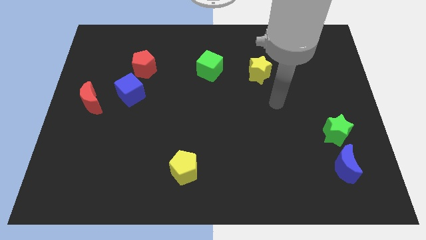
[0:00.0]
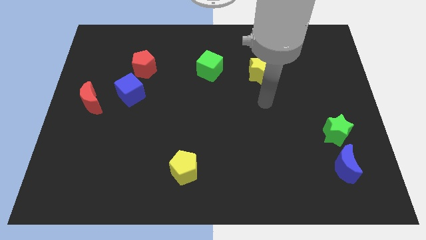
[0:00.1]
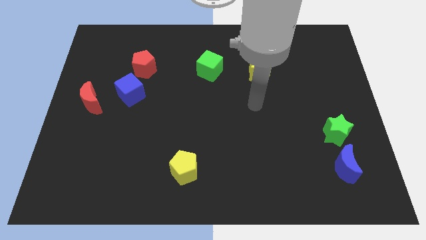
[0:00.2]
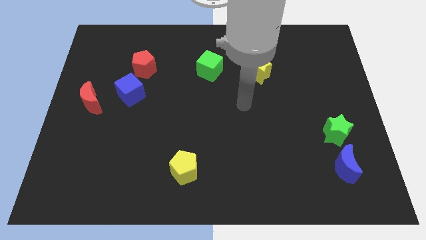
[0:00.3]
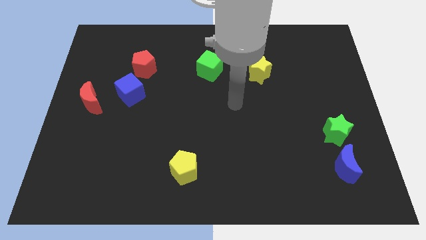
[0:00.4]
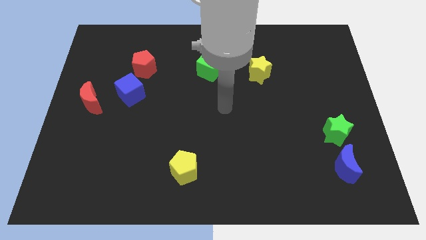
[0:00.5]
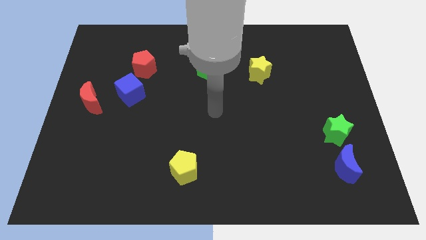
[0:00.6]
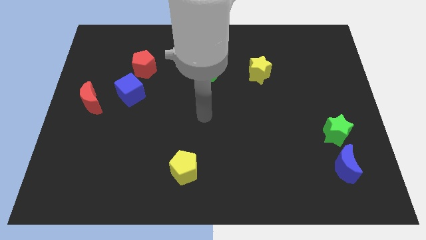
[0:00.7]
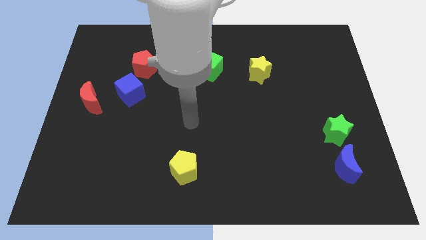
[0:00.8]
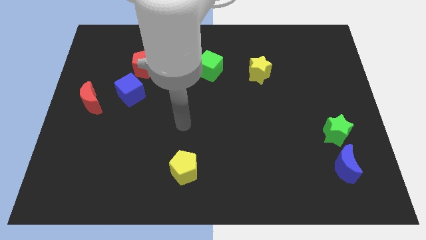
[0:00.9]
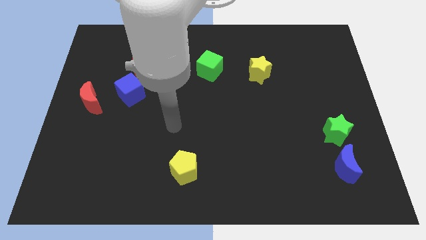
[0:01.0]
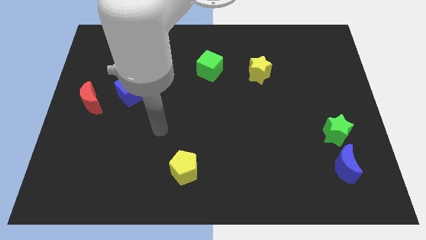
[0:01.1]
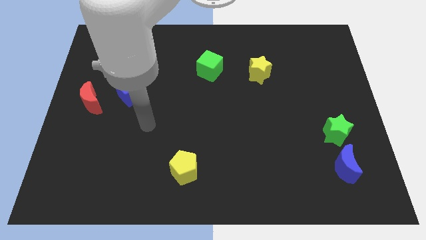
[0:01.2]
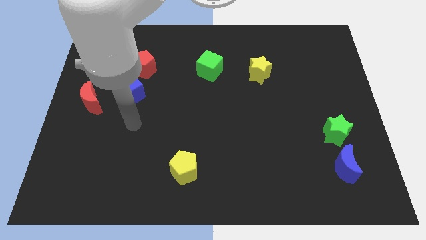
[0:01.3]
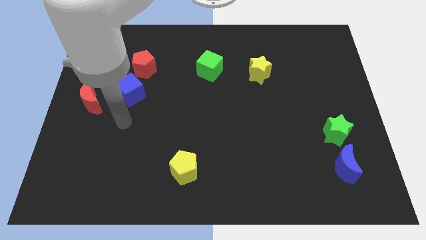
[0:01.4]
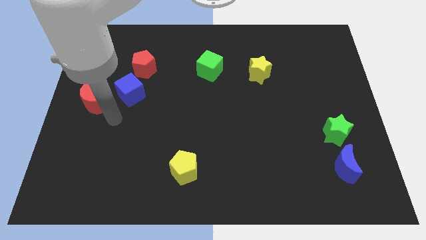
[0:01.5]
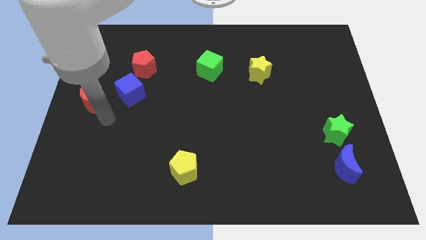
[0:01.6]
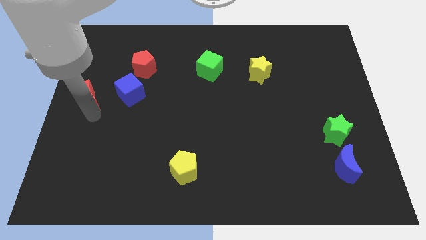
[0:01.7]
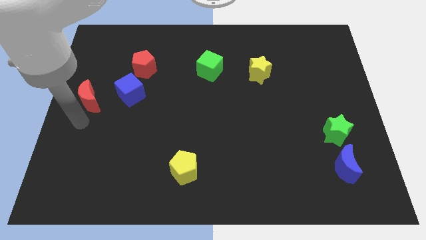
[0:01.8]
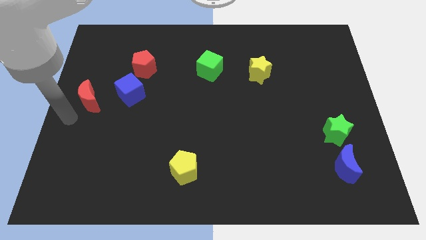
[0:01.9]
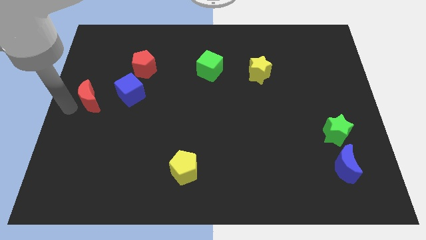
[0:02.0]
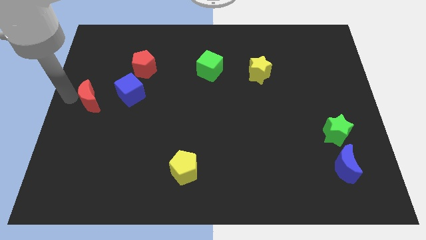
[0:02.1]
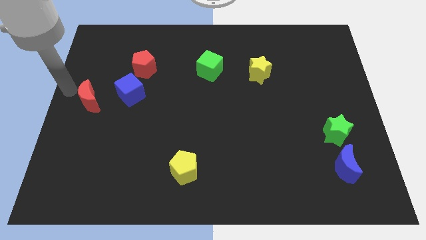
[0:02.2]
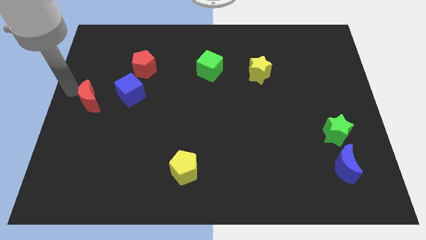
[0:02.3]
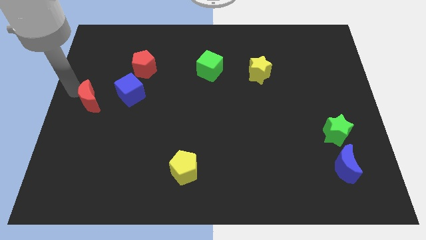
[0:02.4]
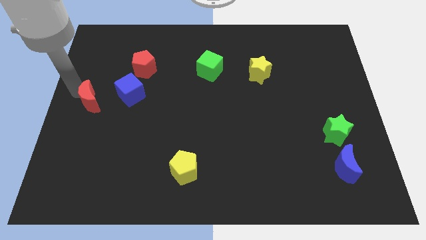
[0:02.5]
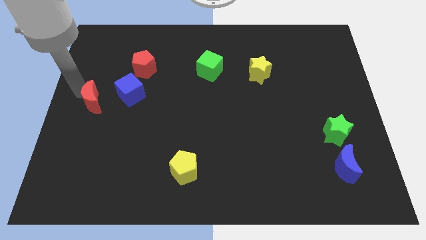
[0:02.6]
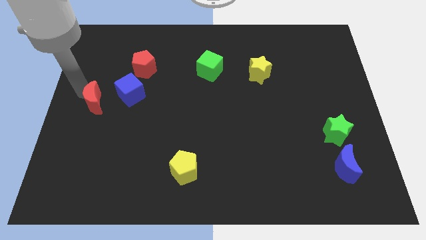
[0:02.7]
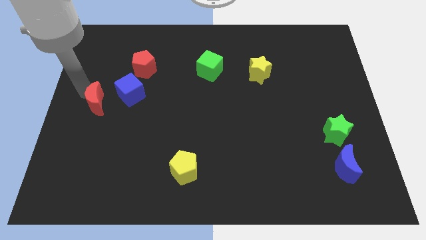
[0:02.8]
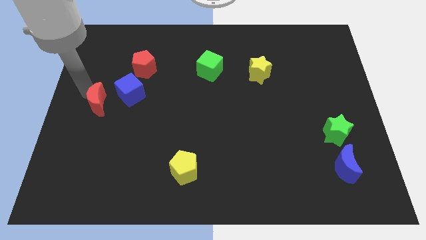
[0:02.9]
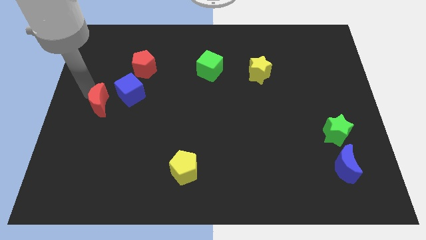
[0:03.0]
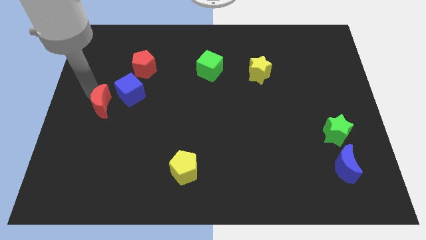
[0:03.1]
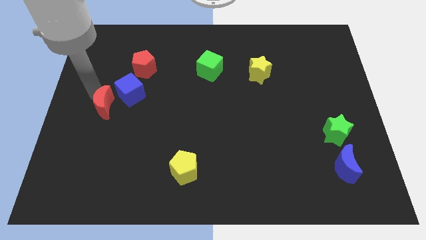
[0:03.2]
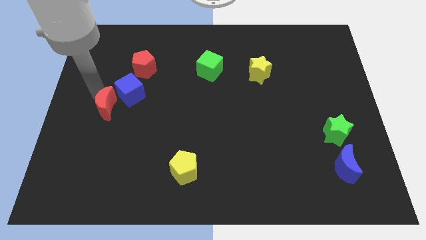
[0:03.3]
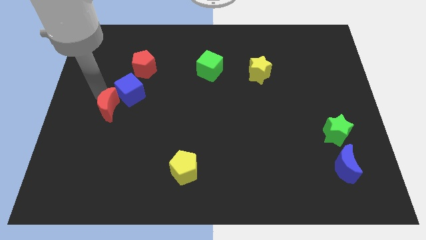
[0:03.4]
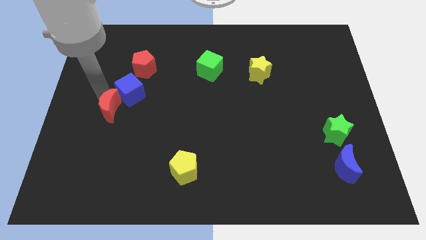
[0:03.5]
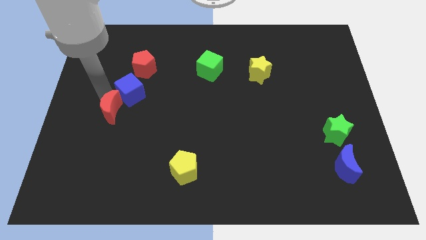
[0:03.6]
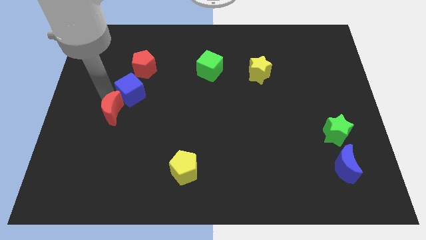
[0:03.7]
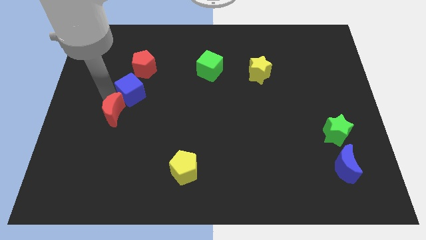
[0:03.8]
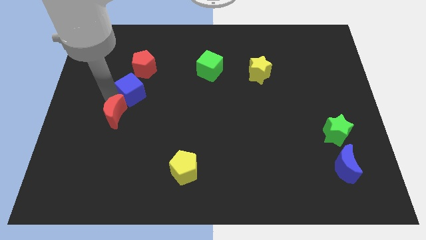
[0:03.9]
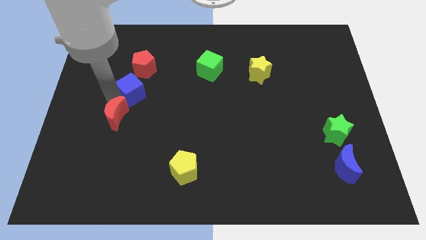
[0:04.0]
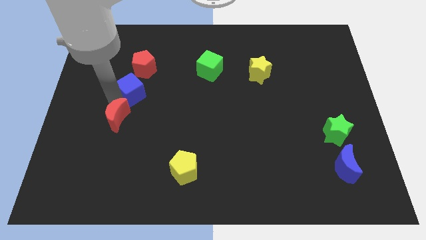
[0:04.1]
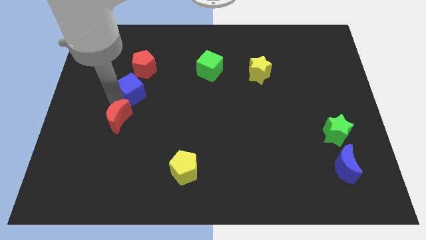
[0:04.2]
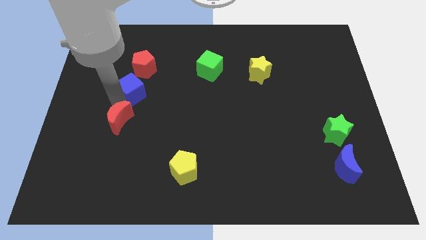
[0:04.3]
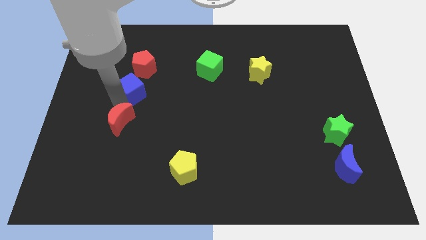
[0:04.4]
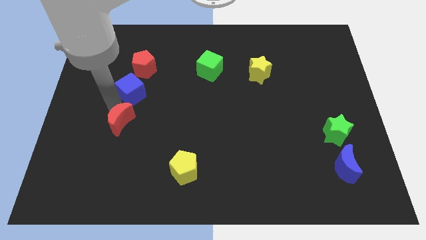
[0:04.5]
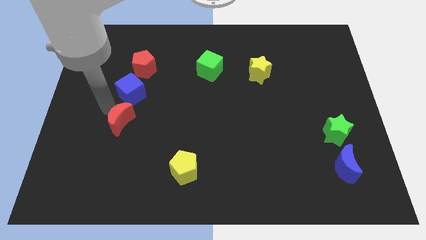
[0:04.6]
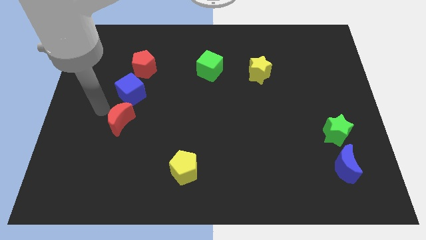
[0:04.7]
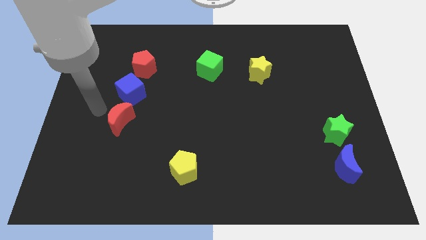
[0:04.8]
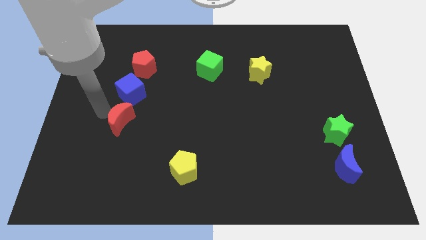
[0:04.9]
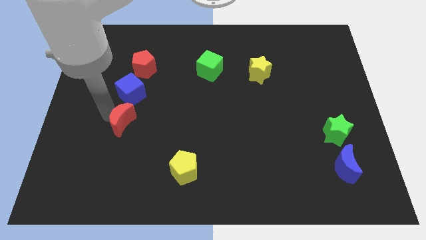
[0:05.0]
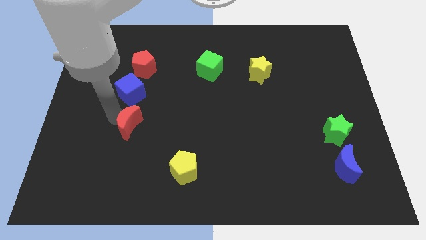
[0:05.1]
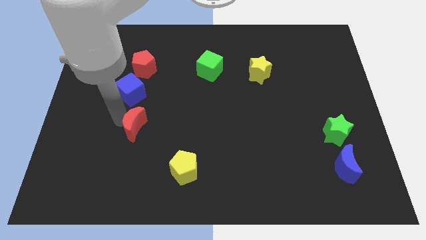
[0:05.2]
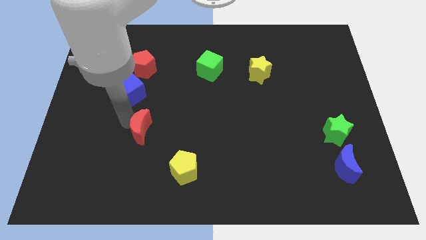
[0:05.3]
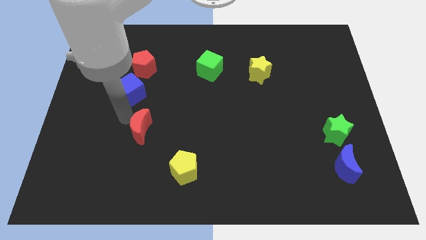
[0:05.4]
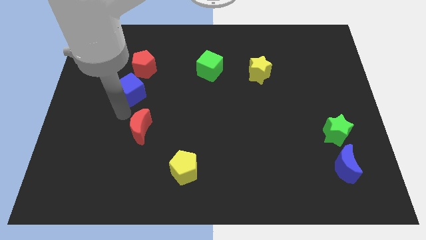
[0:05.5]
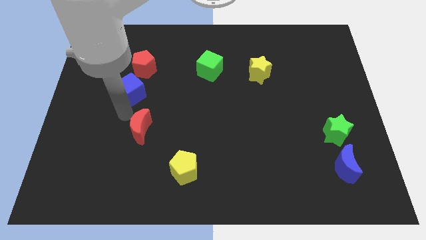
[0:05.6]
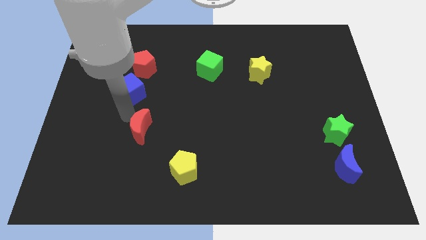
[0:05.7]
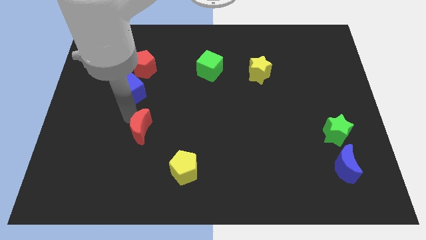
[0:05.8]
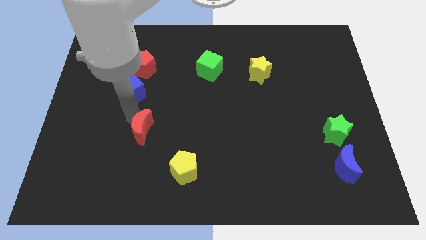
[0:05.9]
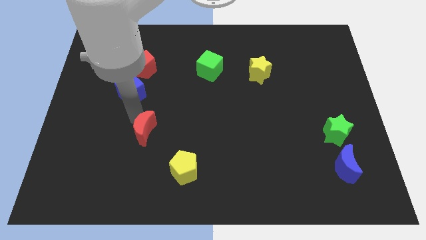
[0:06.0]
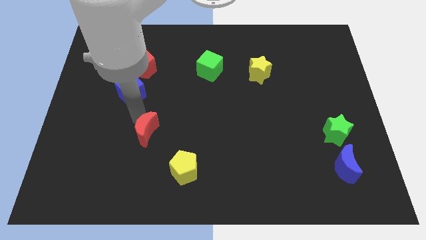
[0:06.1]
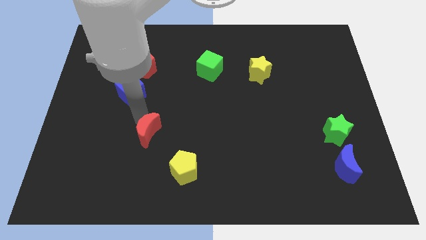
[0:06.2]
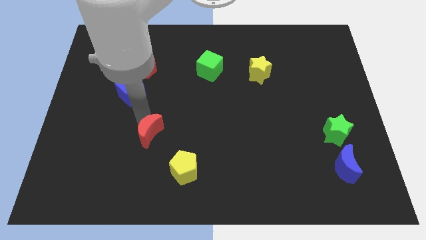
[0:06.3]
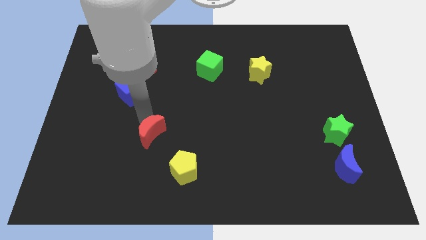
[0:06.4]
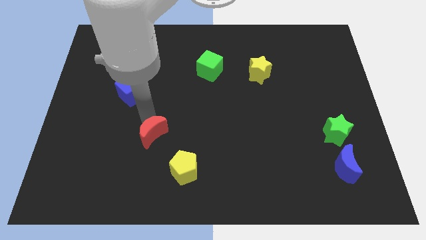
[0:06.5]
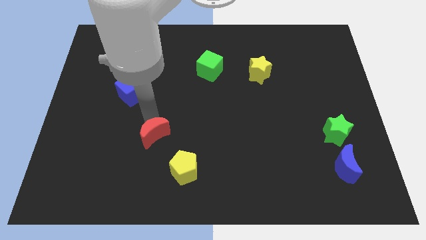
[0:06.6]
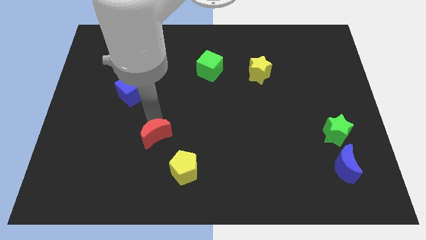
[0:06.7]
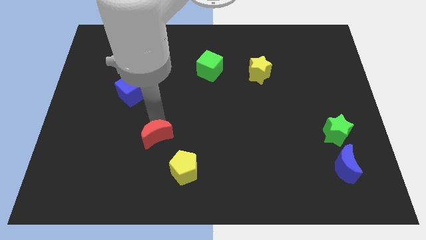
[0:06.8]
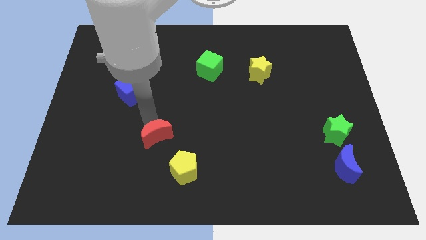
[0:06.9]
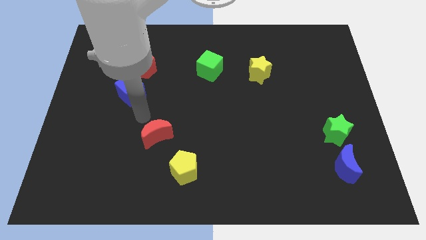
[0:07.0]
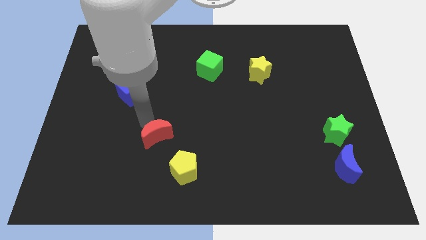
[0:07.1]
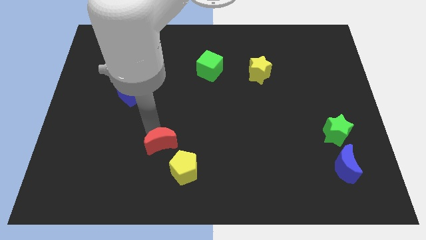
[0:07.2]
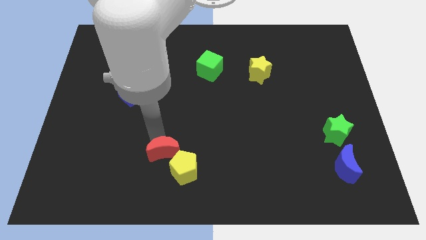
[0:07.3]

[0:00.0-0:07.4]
slide the red moon next to the yellow pentagon
